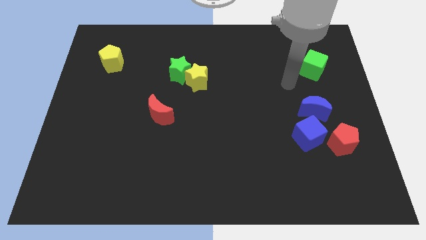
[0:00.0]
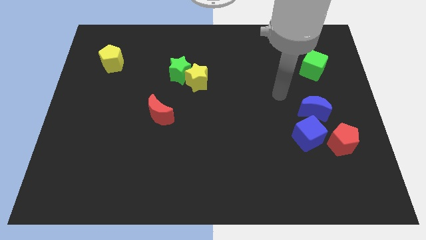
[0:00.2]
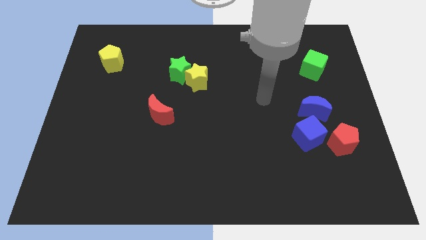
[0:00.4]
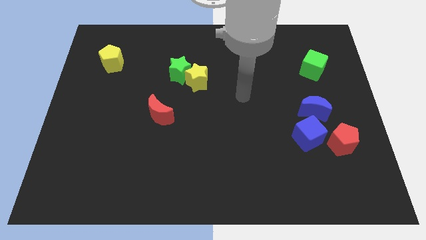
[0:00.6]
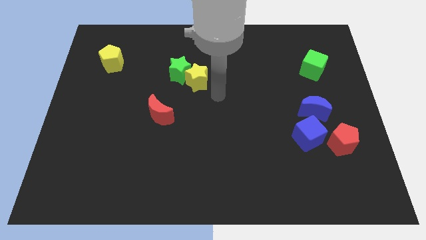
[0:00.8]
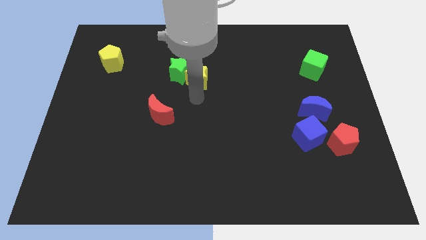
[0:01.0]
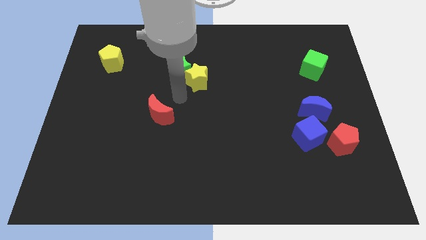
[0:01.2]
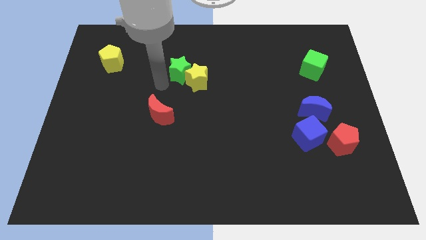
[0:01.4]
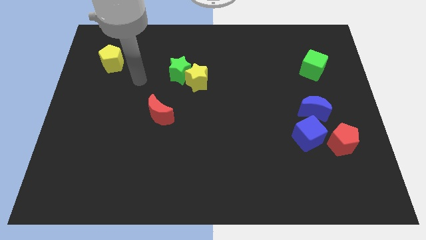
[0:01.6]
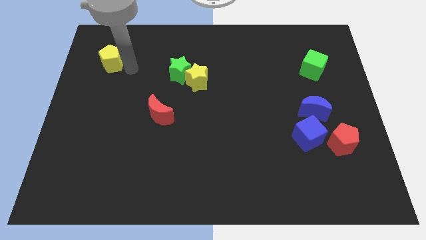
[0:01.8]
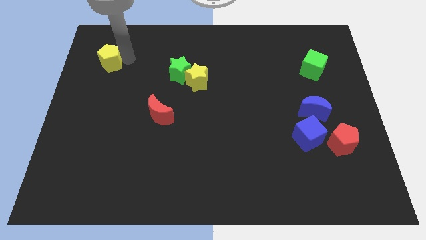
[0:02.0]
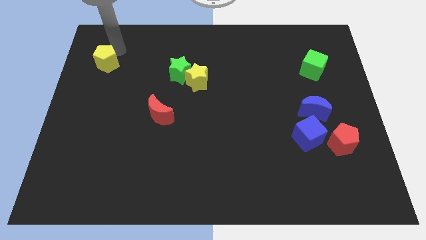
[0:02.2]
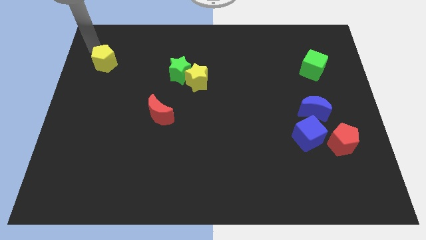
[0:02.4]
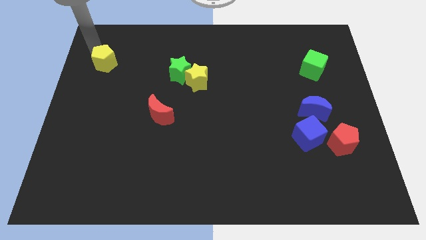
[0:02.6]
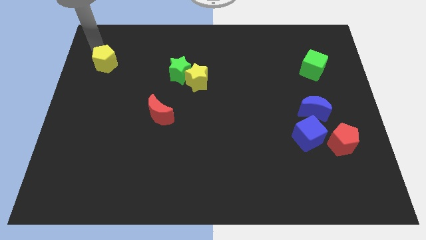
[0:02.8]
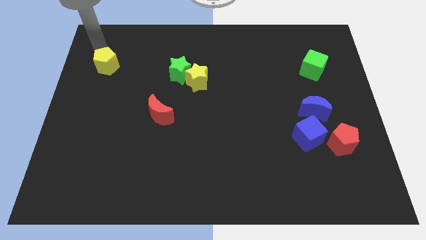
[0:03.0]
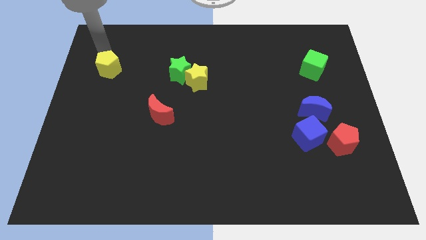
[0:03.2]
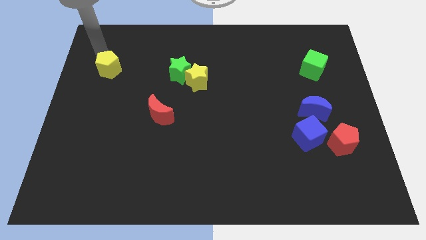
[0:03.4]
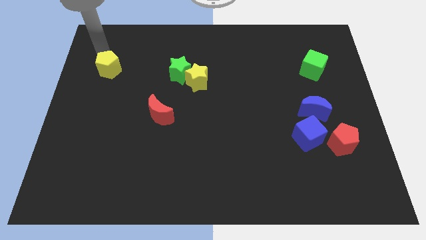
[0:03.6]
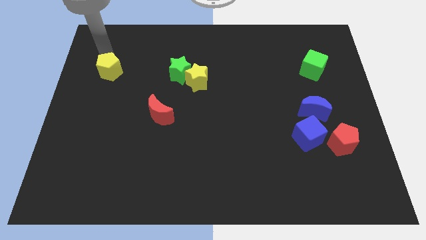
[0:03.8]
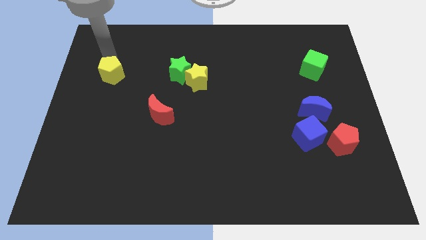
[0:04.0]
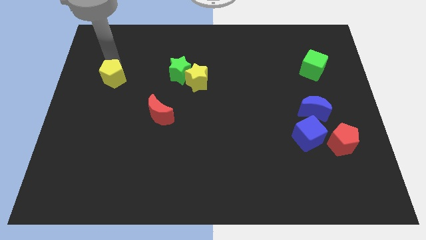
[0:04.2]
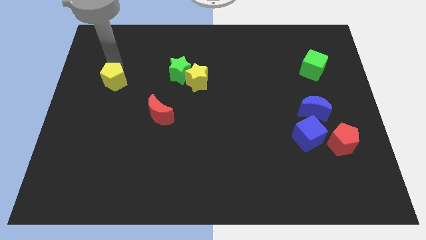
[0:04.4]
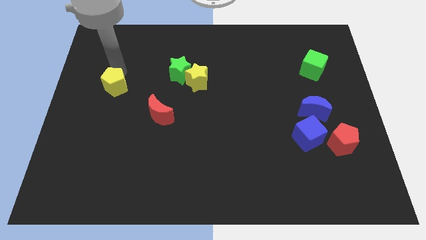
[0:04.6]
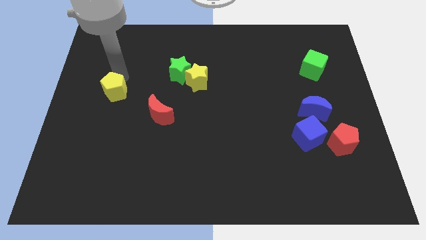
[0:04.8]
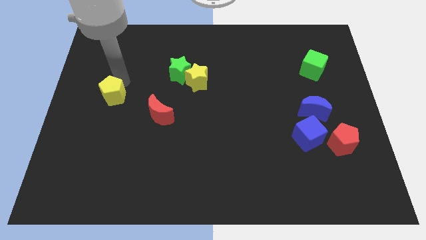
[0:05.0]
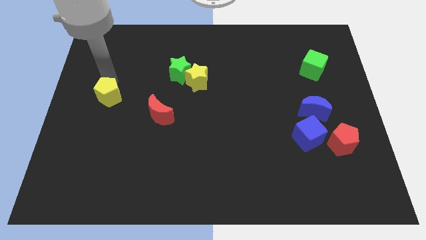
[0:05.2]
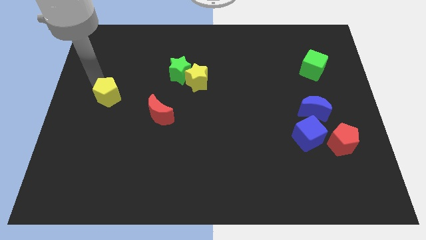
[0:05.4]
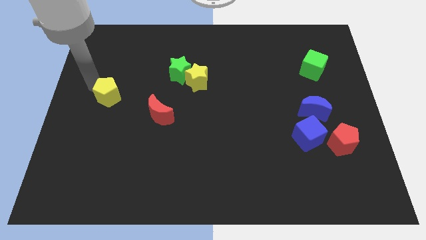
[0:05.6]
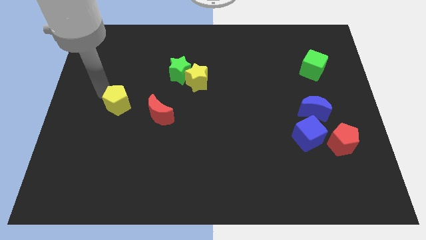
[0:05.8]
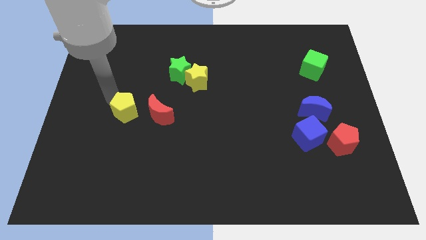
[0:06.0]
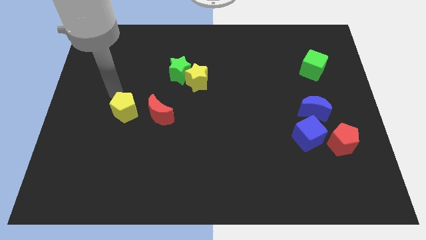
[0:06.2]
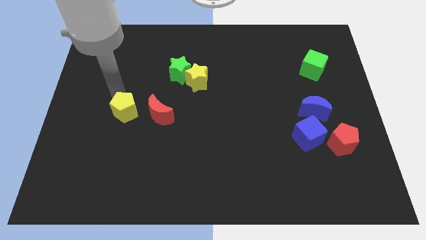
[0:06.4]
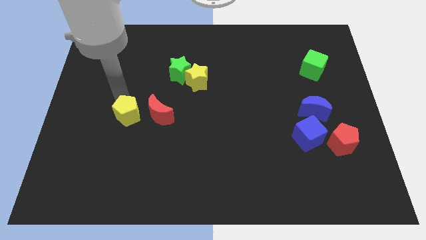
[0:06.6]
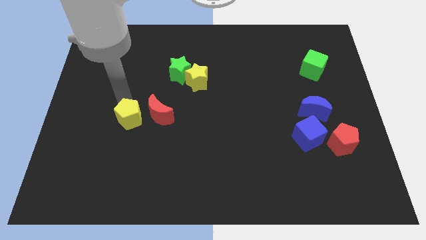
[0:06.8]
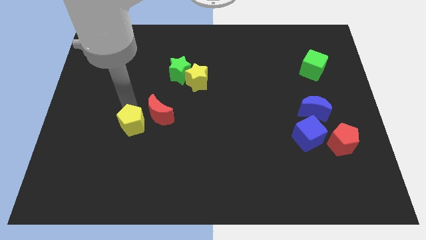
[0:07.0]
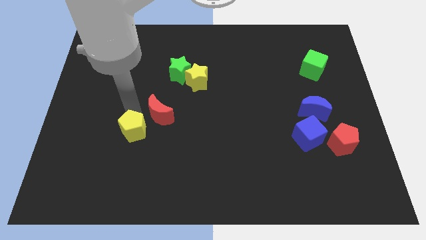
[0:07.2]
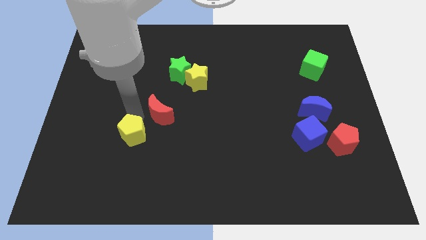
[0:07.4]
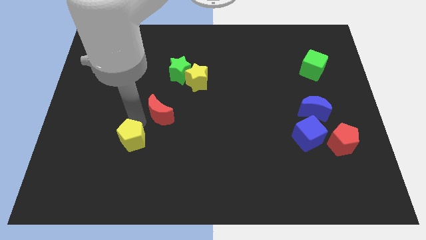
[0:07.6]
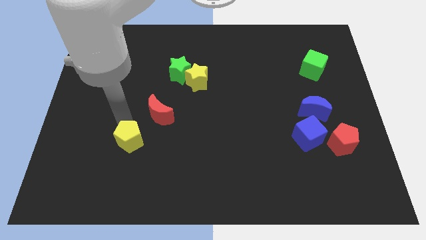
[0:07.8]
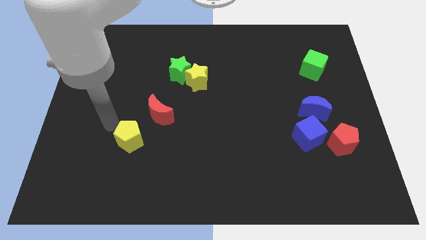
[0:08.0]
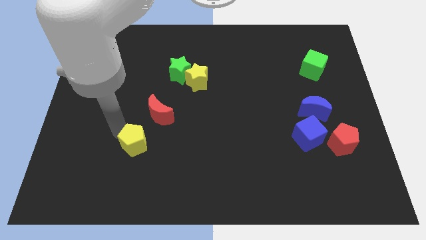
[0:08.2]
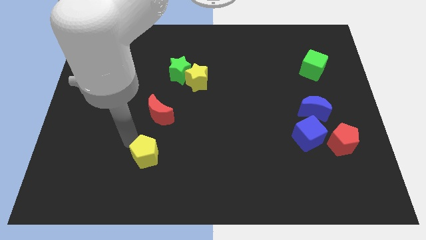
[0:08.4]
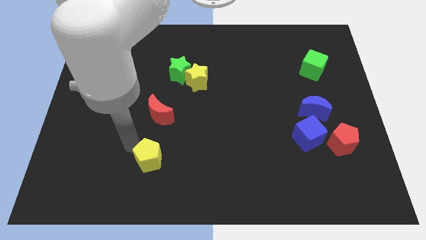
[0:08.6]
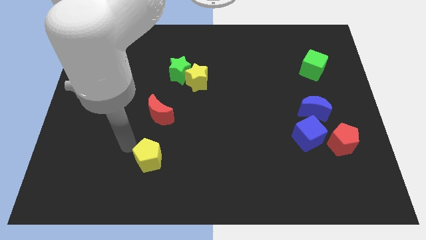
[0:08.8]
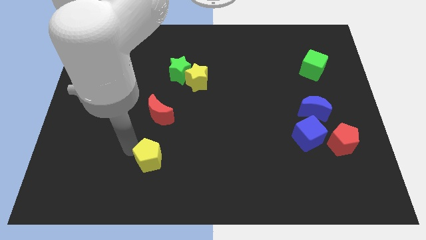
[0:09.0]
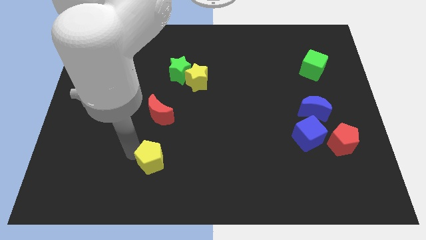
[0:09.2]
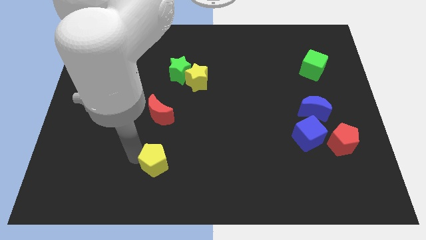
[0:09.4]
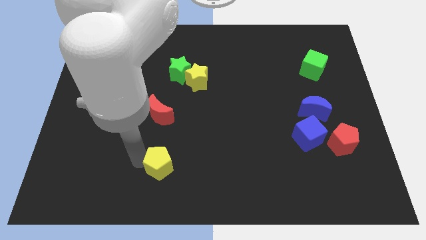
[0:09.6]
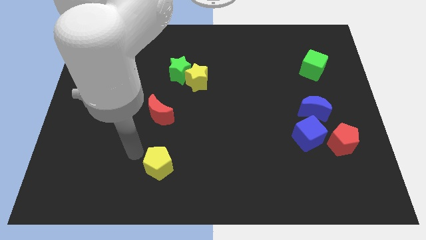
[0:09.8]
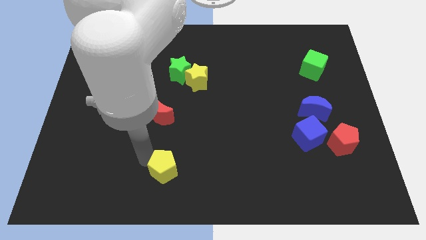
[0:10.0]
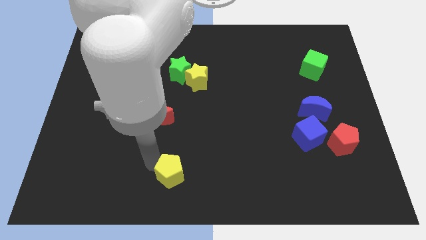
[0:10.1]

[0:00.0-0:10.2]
move the yellow pentagon to the bottom side

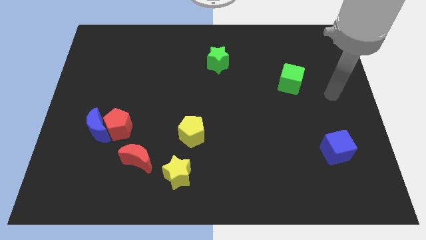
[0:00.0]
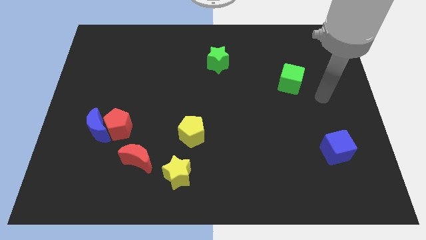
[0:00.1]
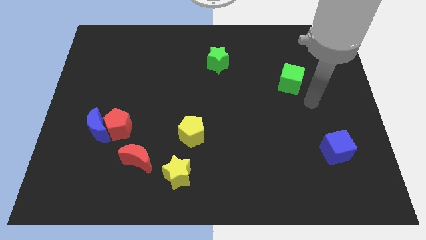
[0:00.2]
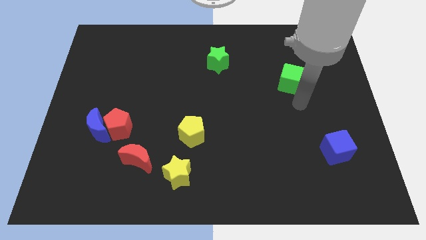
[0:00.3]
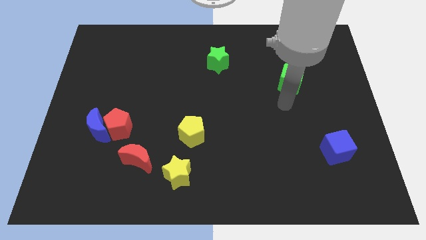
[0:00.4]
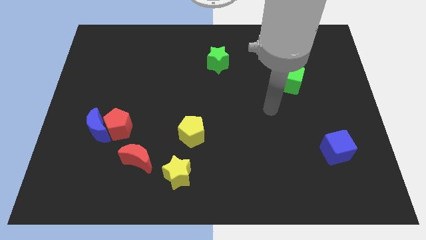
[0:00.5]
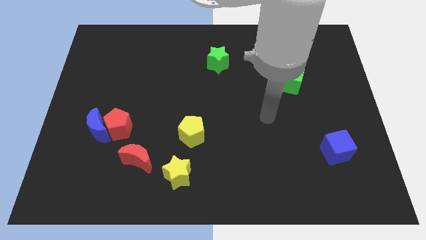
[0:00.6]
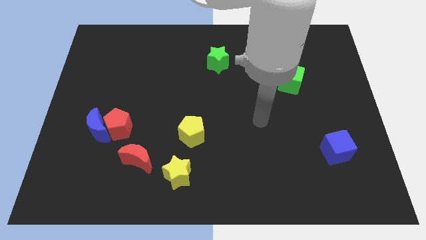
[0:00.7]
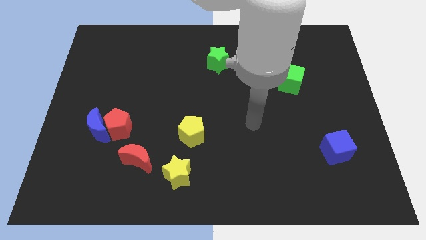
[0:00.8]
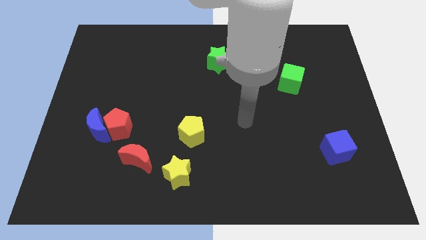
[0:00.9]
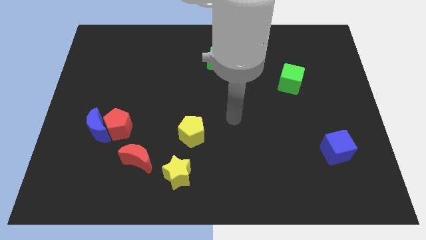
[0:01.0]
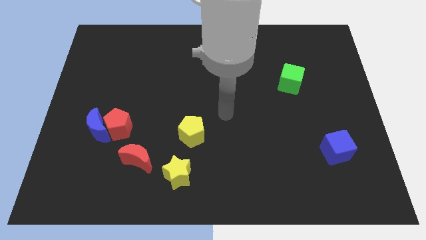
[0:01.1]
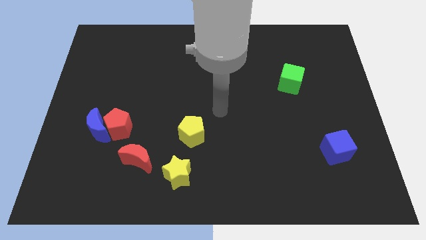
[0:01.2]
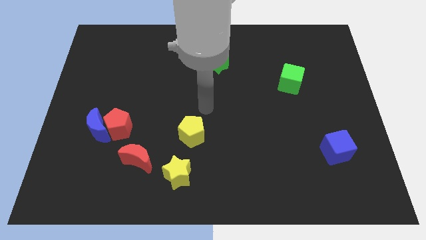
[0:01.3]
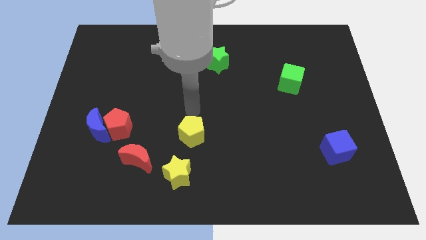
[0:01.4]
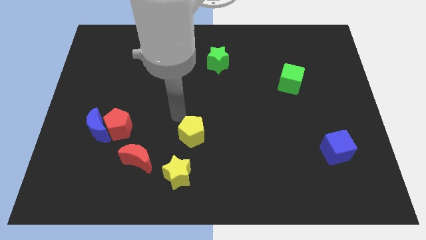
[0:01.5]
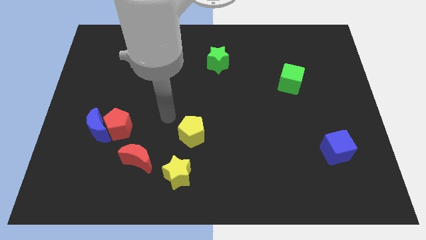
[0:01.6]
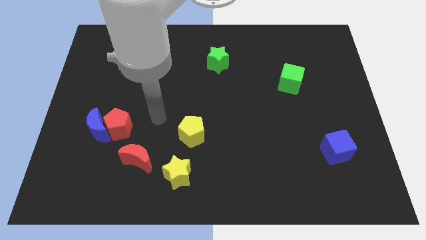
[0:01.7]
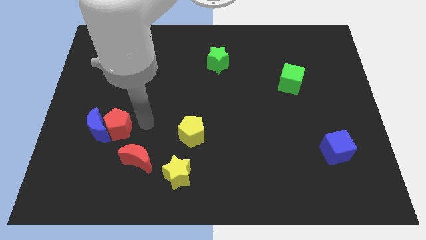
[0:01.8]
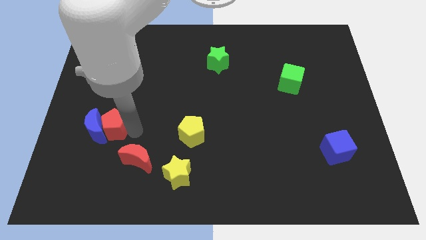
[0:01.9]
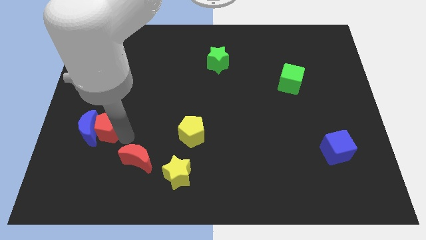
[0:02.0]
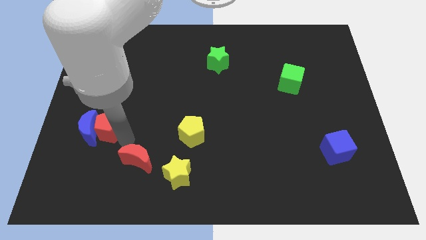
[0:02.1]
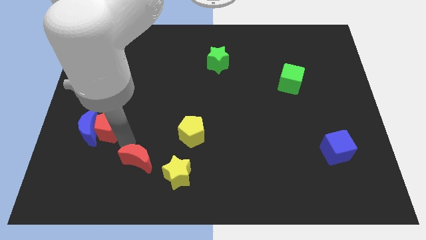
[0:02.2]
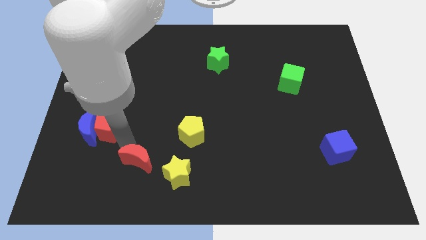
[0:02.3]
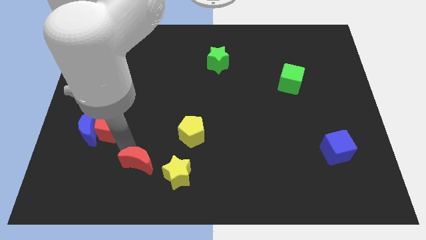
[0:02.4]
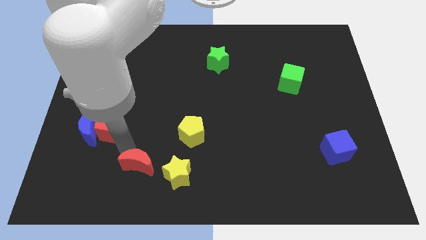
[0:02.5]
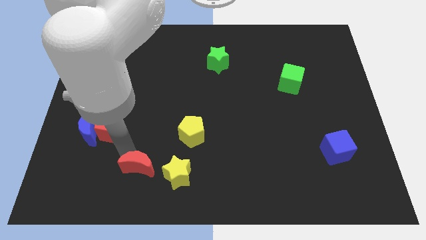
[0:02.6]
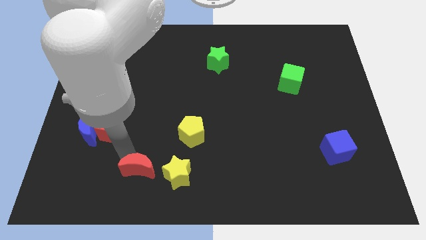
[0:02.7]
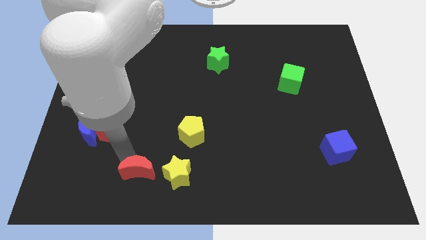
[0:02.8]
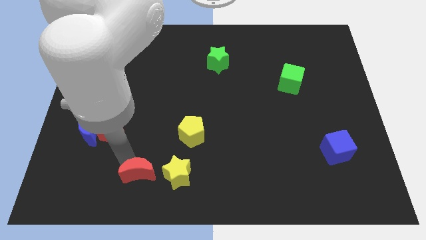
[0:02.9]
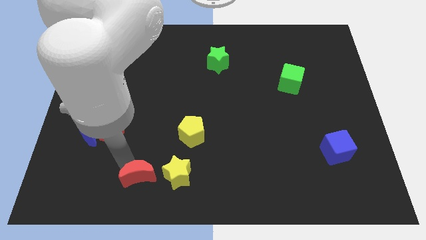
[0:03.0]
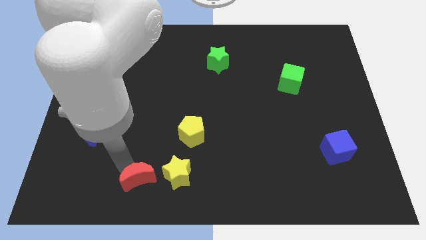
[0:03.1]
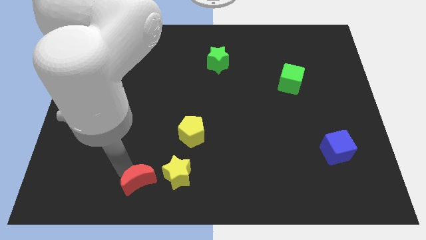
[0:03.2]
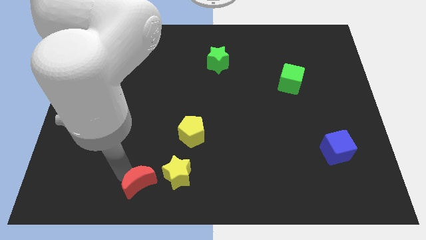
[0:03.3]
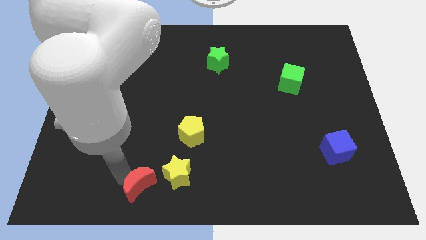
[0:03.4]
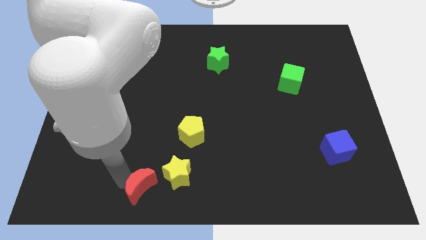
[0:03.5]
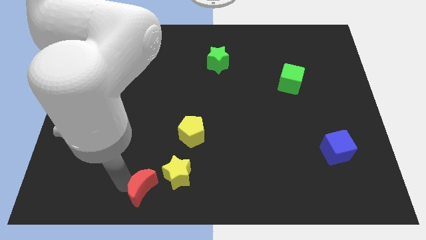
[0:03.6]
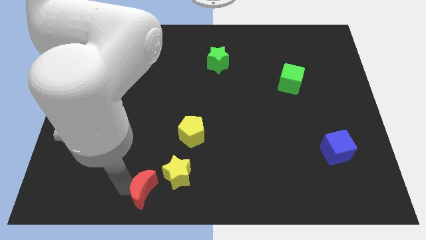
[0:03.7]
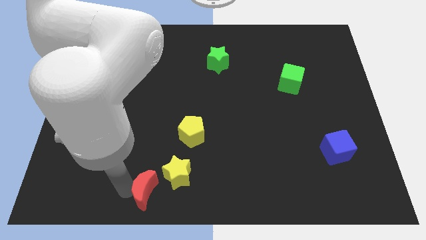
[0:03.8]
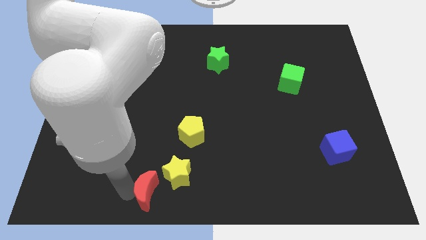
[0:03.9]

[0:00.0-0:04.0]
move the red moon to the bottom
